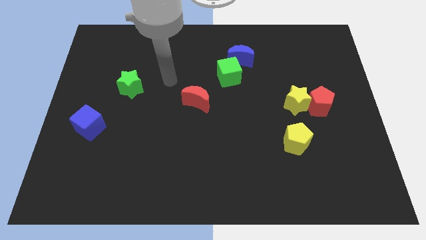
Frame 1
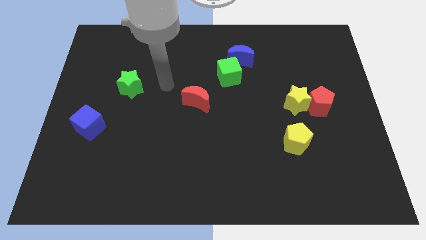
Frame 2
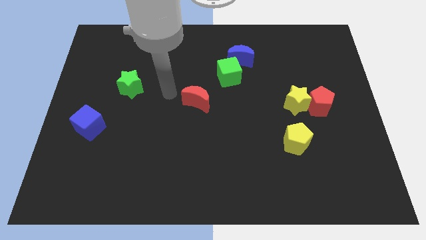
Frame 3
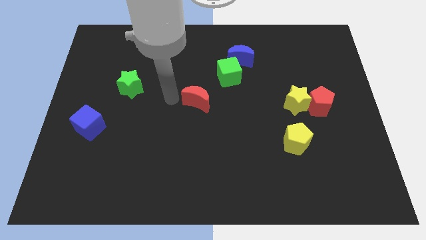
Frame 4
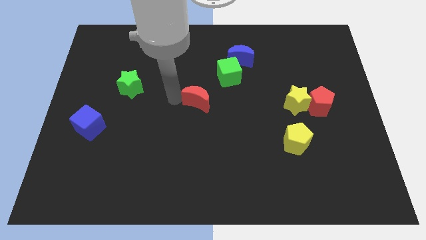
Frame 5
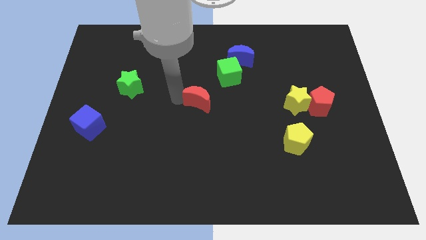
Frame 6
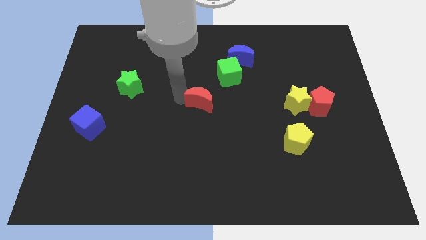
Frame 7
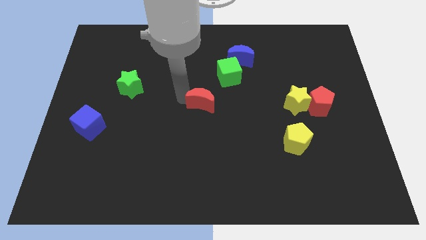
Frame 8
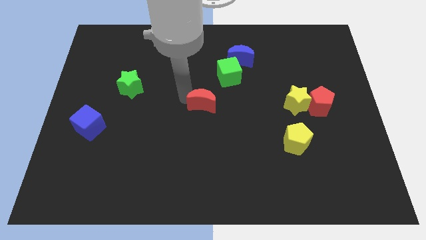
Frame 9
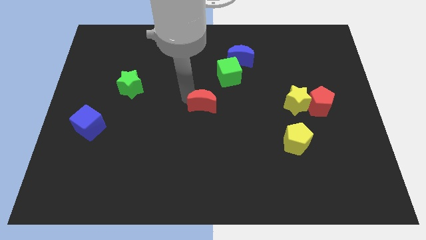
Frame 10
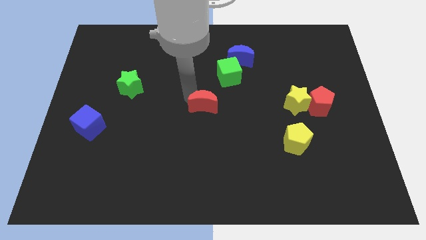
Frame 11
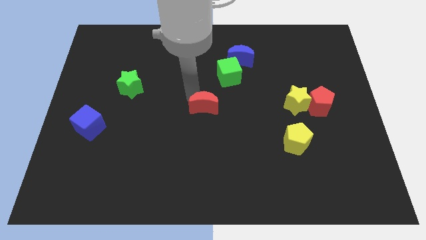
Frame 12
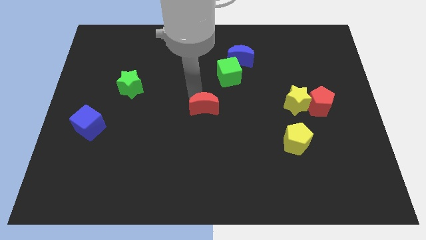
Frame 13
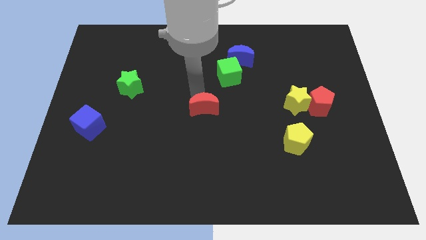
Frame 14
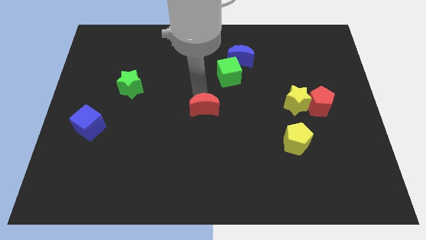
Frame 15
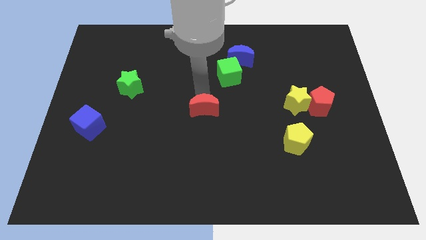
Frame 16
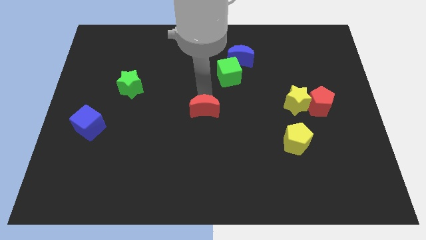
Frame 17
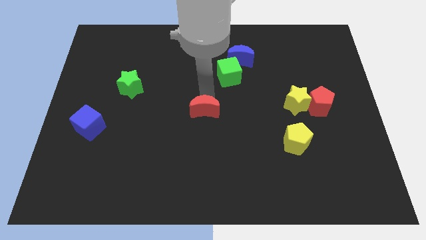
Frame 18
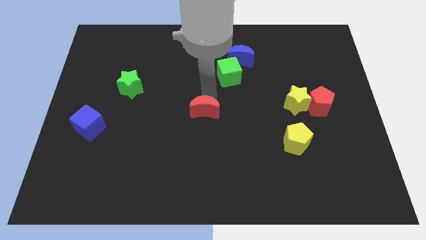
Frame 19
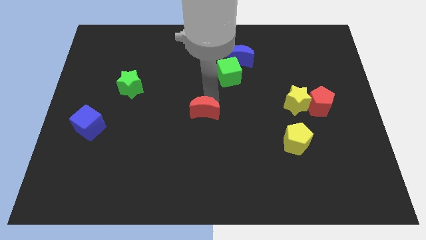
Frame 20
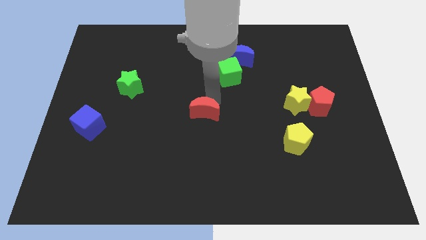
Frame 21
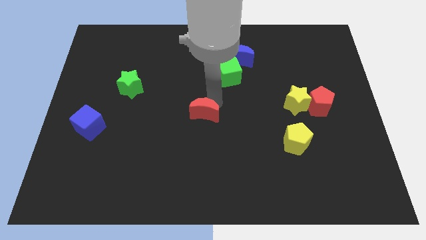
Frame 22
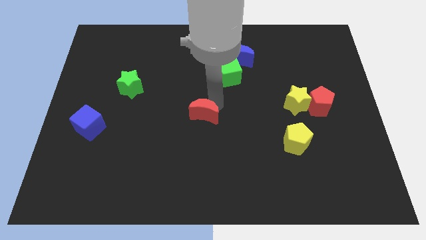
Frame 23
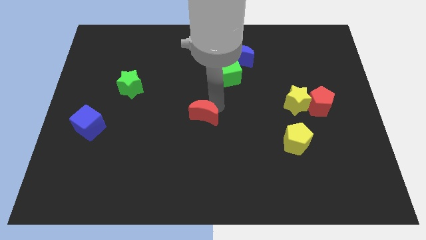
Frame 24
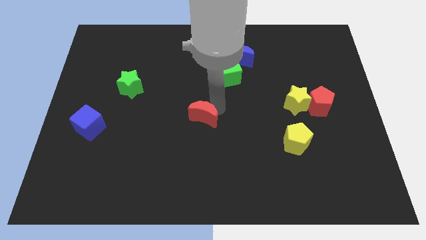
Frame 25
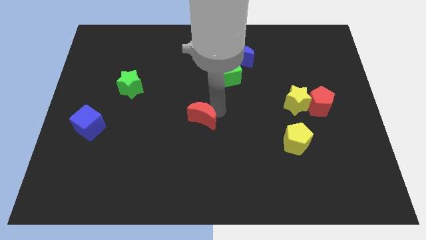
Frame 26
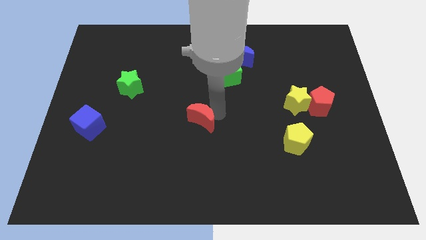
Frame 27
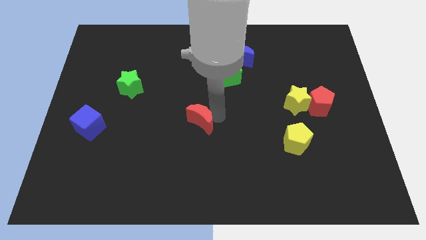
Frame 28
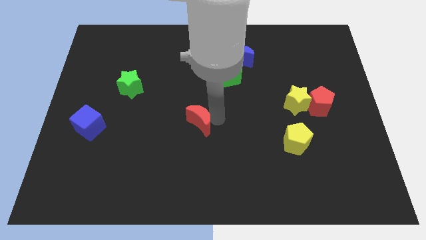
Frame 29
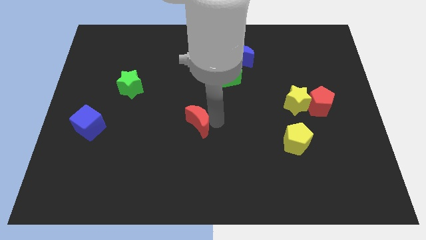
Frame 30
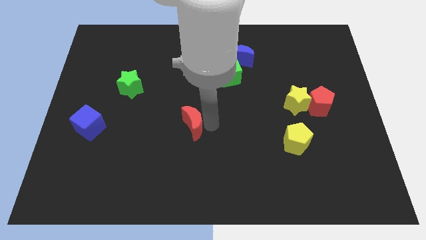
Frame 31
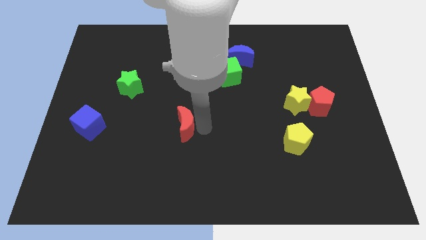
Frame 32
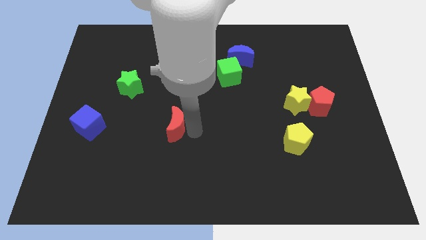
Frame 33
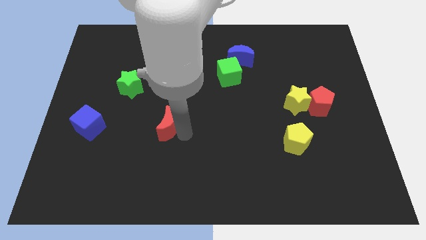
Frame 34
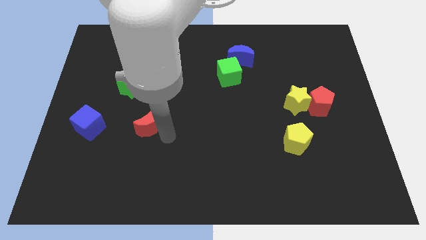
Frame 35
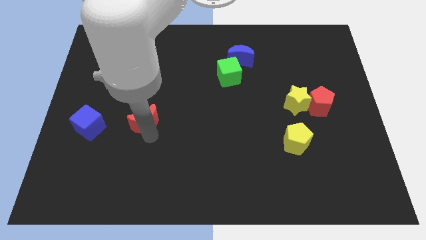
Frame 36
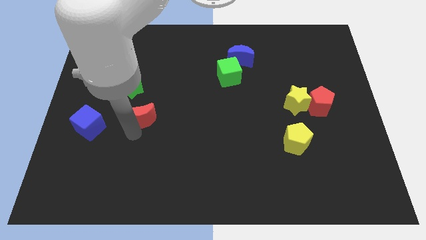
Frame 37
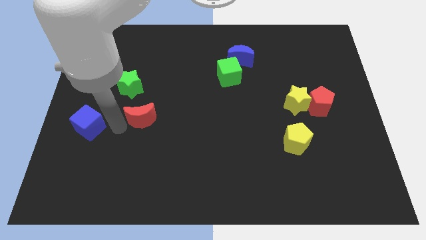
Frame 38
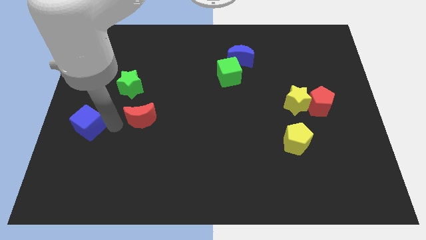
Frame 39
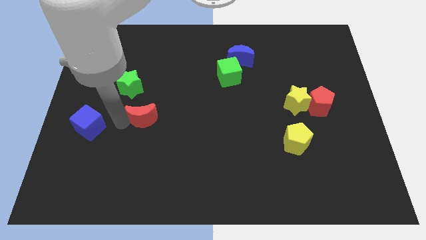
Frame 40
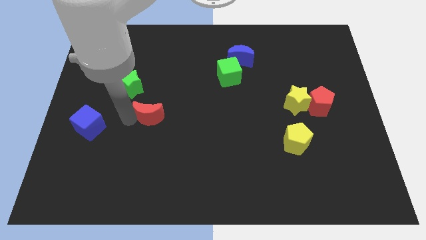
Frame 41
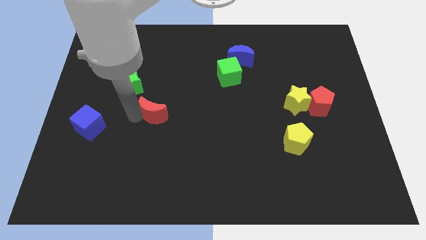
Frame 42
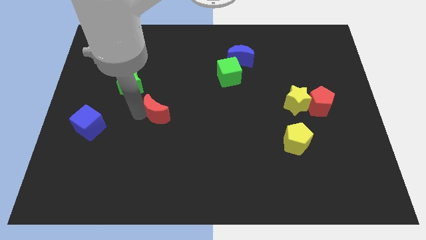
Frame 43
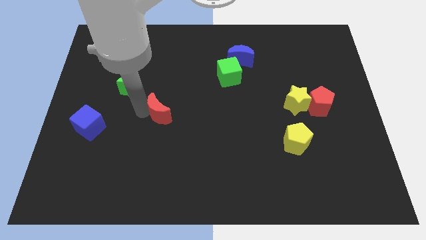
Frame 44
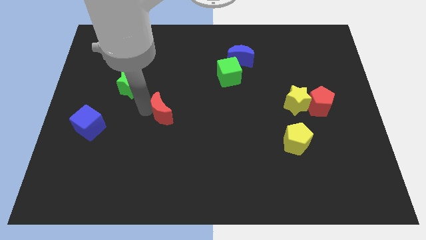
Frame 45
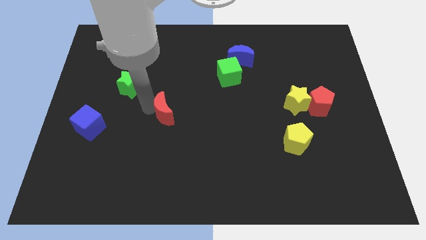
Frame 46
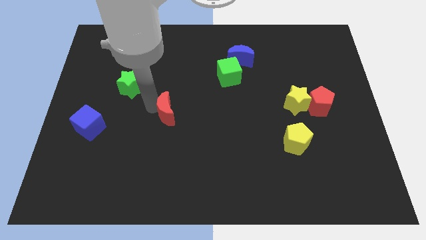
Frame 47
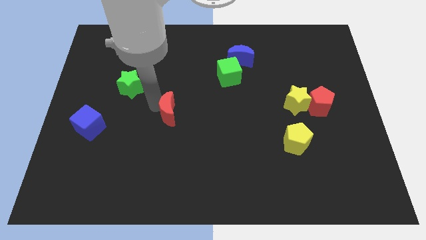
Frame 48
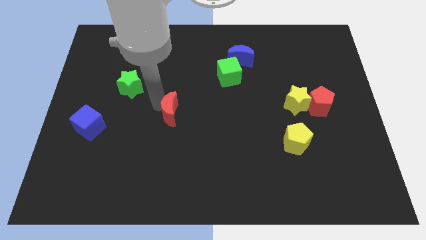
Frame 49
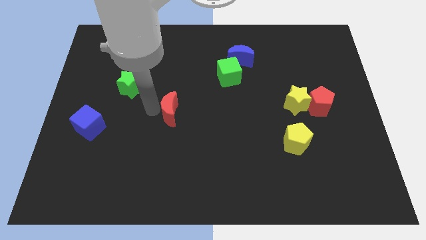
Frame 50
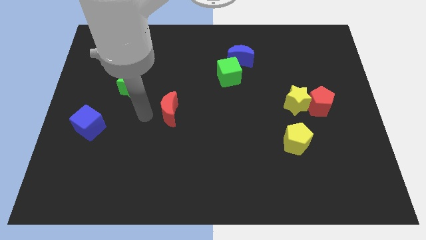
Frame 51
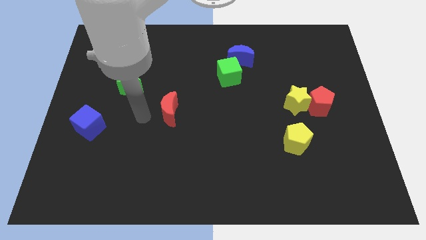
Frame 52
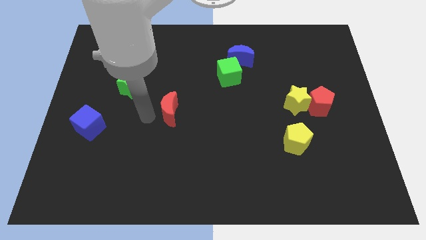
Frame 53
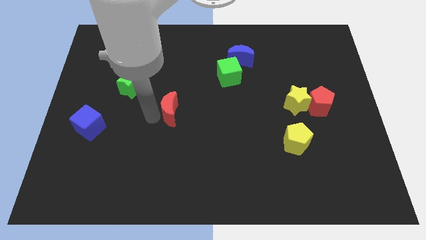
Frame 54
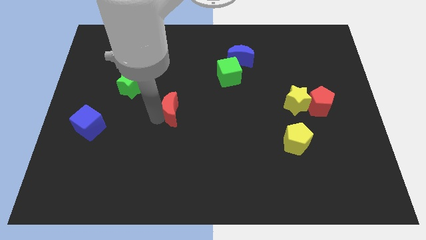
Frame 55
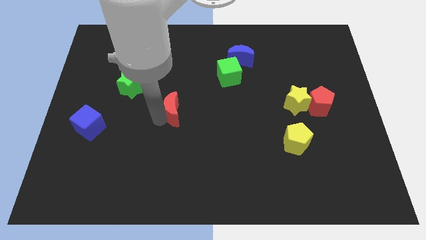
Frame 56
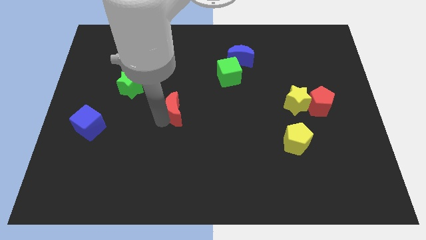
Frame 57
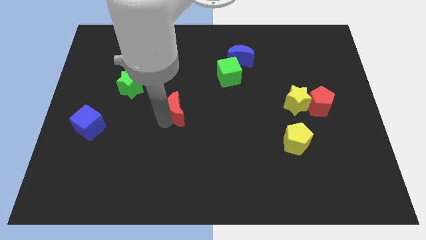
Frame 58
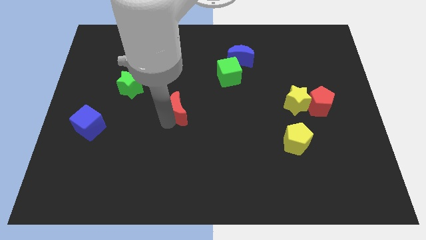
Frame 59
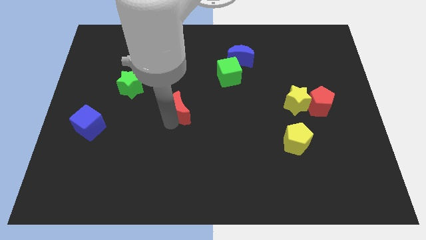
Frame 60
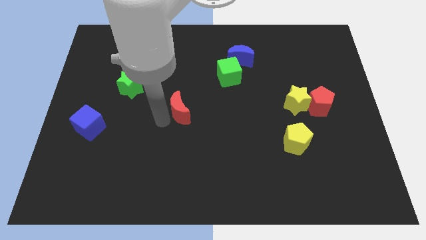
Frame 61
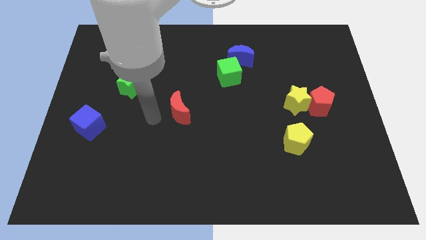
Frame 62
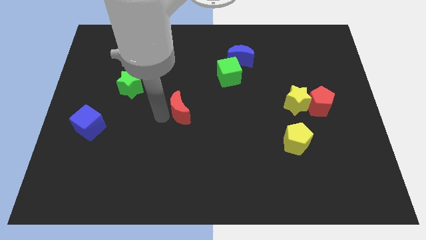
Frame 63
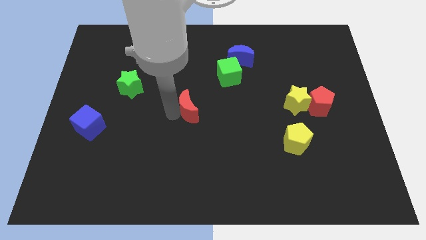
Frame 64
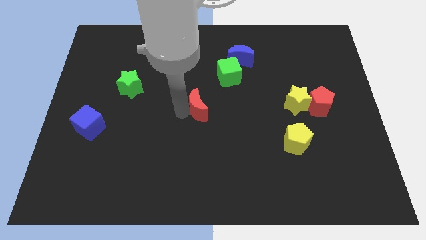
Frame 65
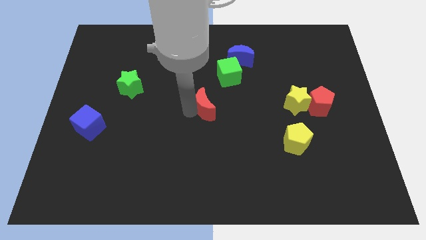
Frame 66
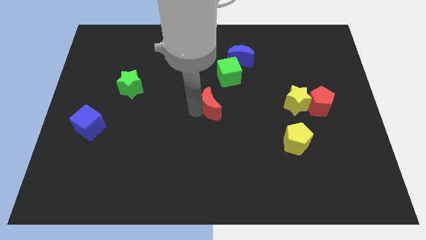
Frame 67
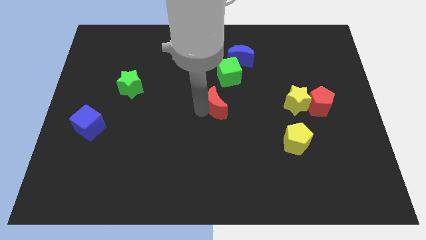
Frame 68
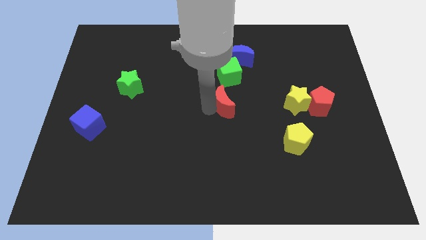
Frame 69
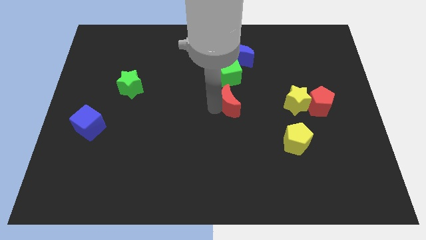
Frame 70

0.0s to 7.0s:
slide the red moon right a little

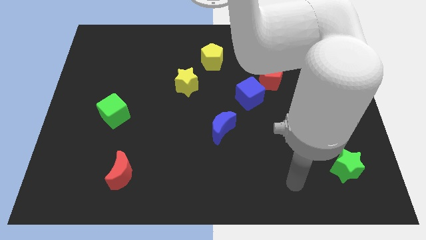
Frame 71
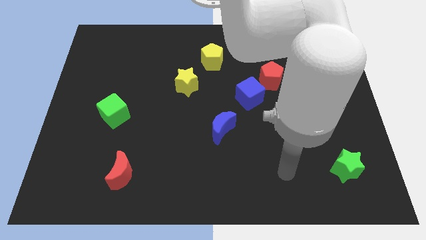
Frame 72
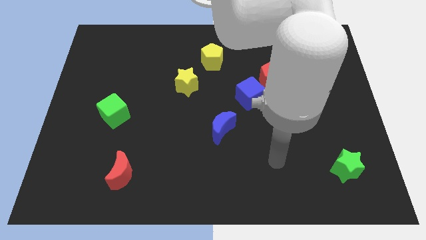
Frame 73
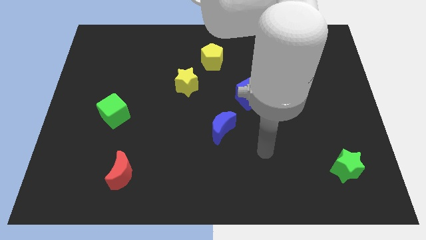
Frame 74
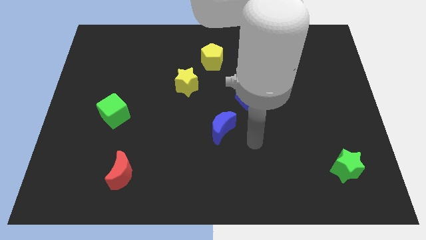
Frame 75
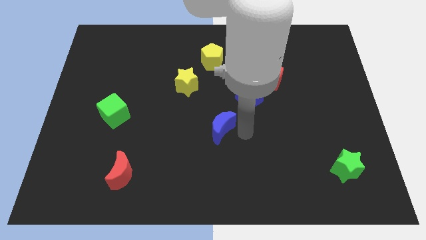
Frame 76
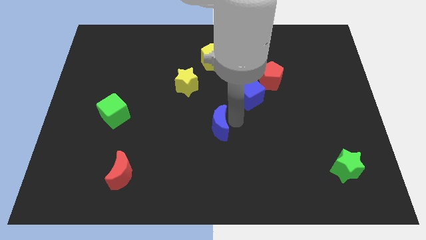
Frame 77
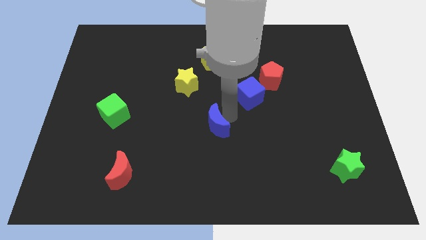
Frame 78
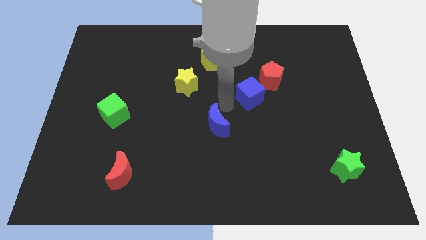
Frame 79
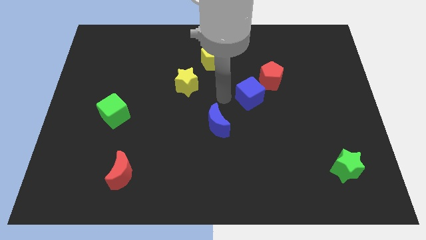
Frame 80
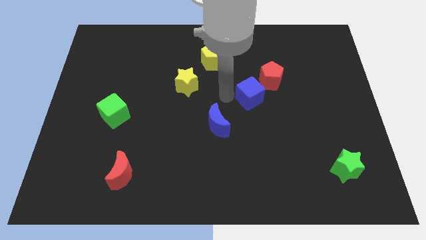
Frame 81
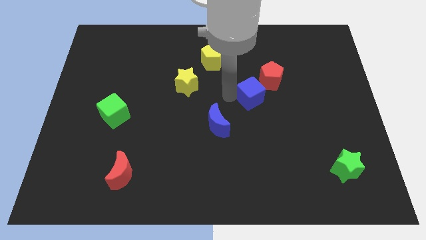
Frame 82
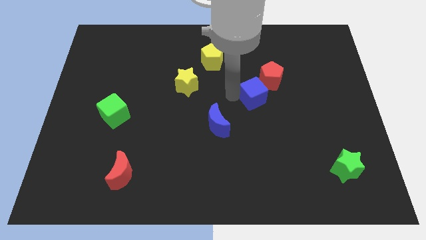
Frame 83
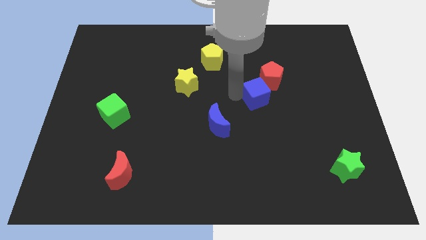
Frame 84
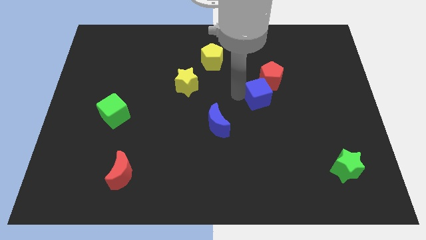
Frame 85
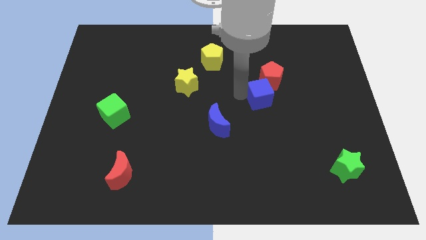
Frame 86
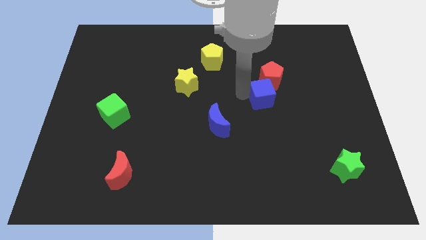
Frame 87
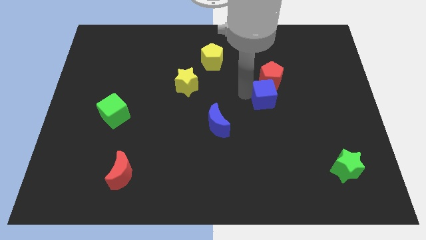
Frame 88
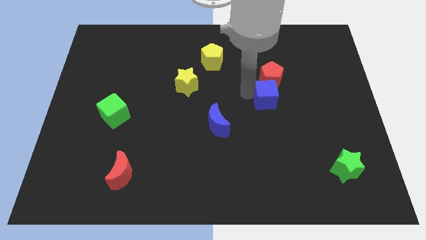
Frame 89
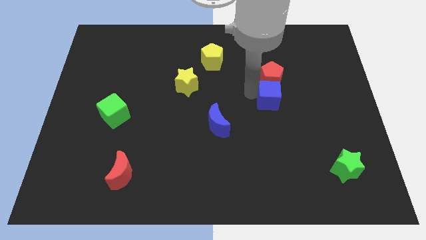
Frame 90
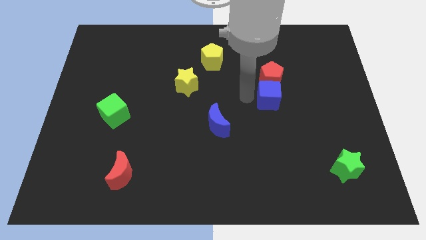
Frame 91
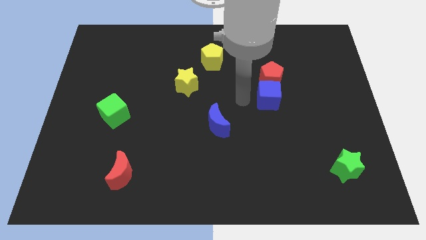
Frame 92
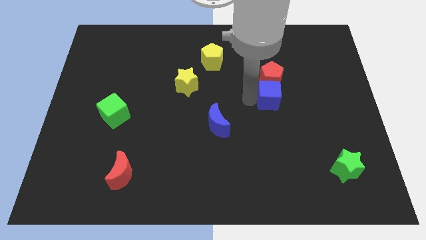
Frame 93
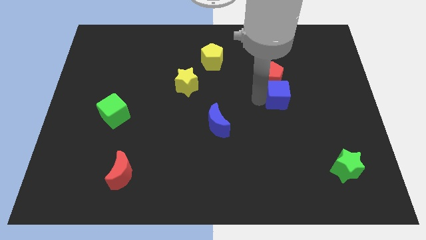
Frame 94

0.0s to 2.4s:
slightly move the blue cube right
